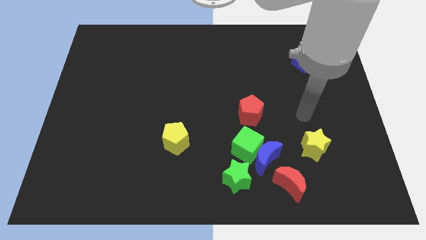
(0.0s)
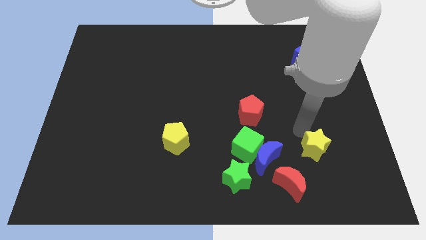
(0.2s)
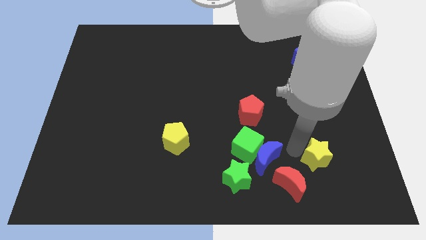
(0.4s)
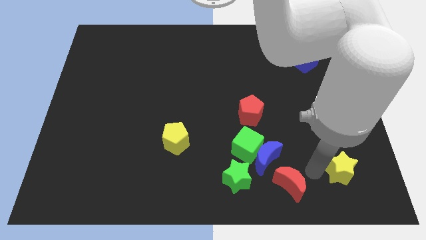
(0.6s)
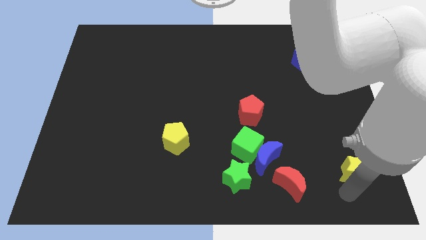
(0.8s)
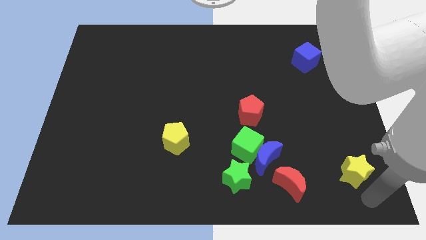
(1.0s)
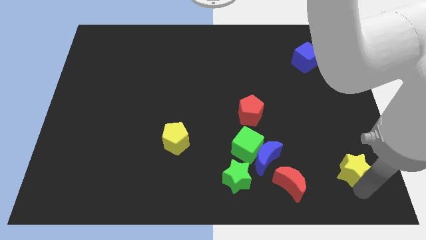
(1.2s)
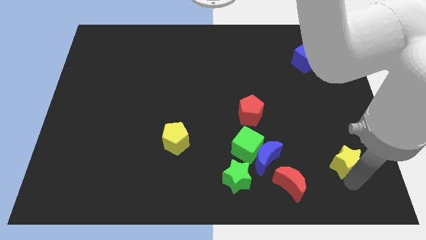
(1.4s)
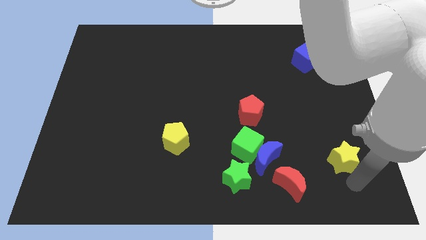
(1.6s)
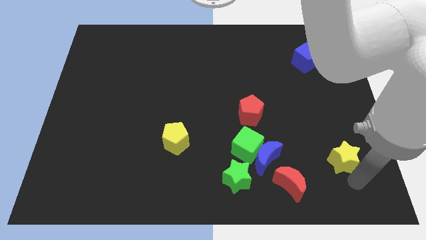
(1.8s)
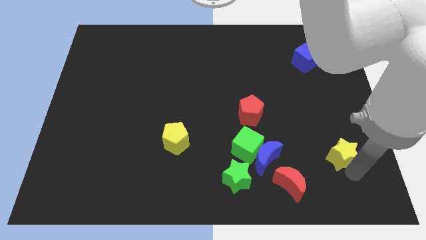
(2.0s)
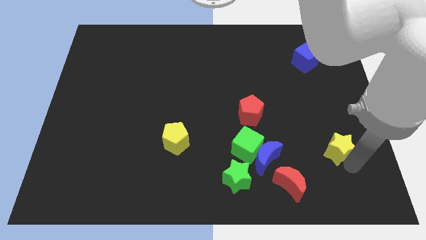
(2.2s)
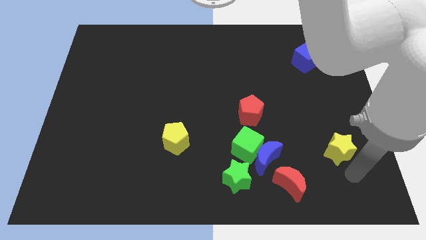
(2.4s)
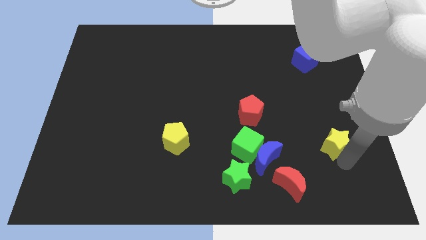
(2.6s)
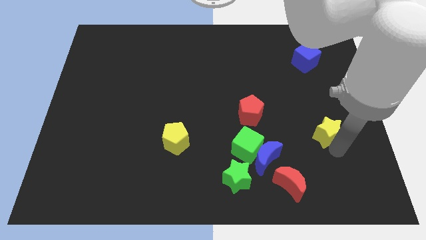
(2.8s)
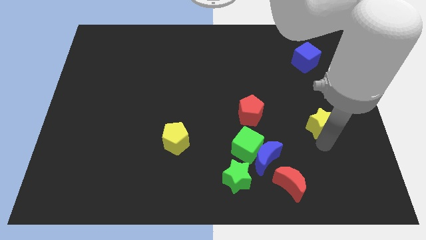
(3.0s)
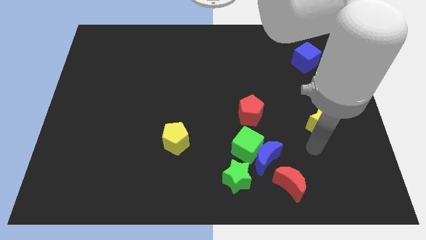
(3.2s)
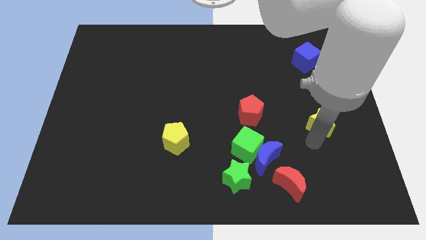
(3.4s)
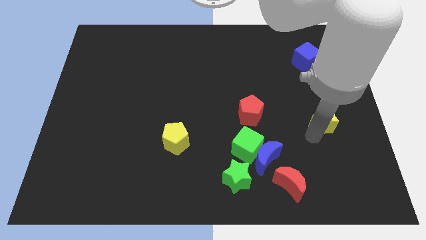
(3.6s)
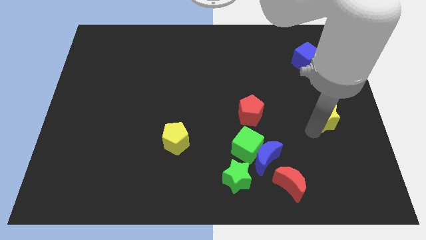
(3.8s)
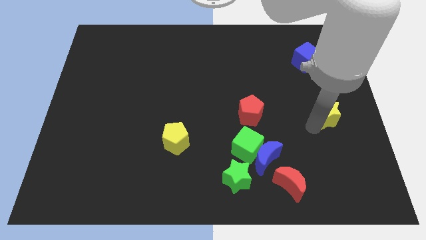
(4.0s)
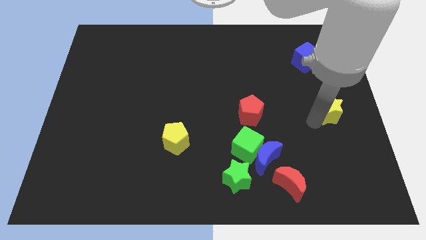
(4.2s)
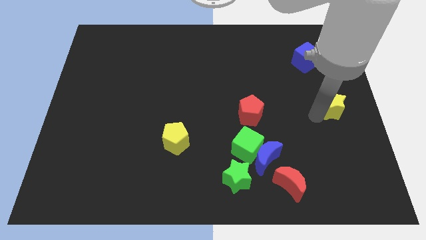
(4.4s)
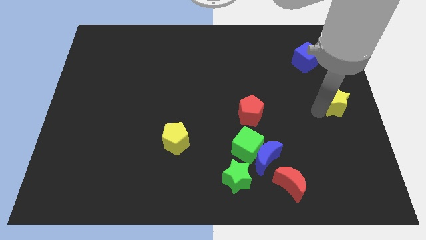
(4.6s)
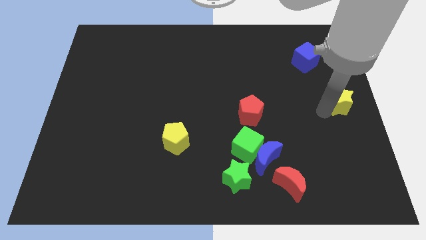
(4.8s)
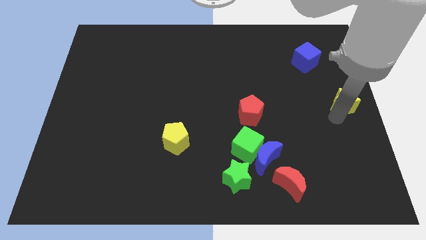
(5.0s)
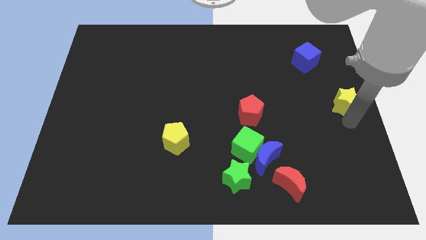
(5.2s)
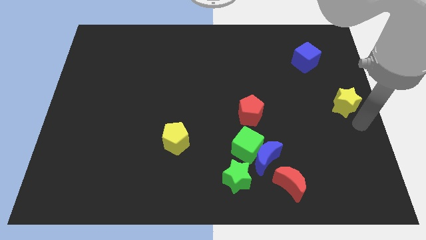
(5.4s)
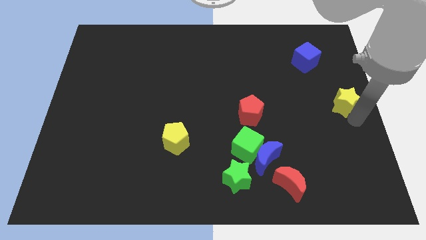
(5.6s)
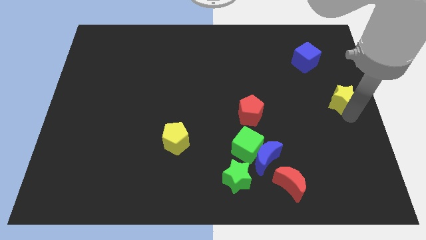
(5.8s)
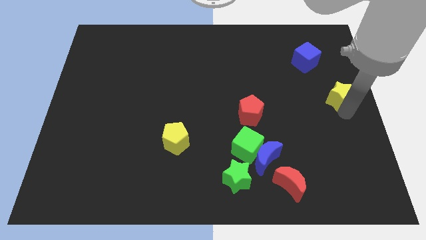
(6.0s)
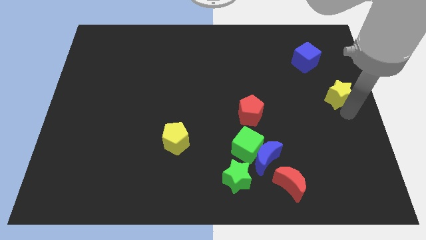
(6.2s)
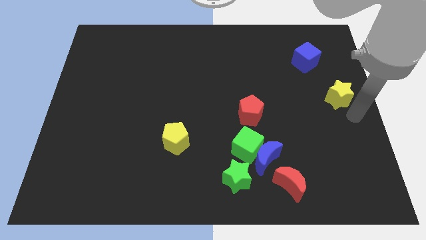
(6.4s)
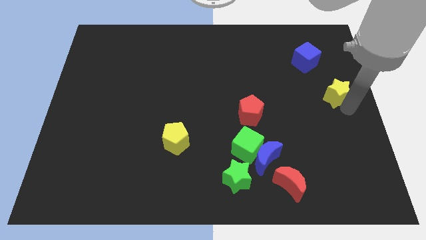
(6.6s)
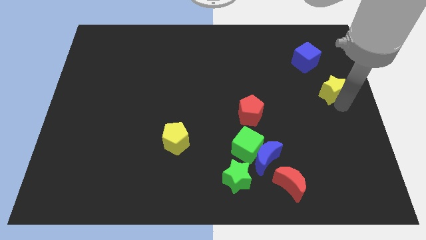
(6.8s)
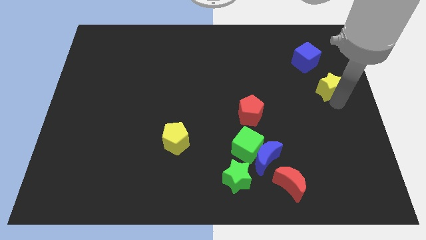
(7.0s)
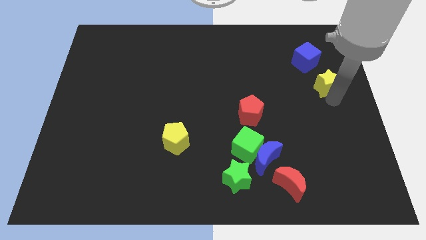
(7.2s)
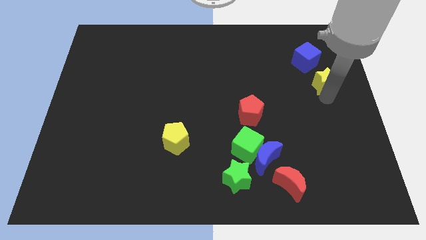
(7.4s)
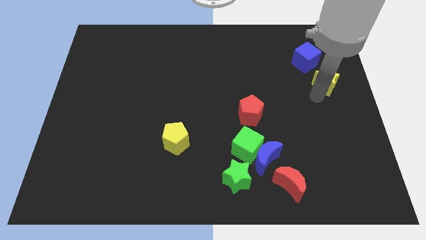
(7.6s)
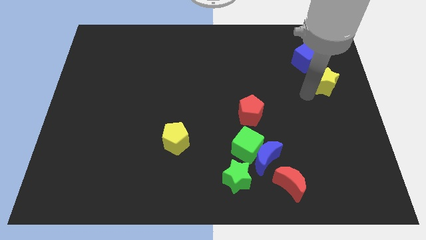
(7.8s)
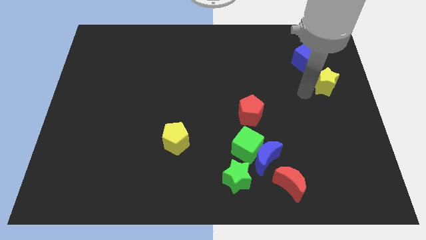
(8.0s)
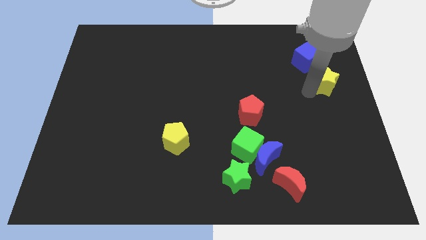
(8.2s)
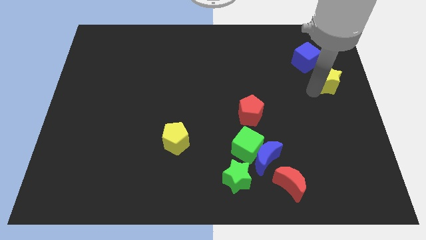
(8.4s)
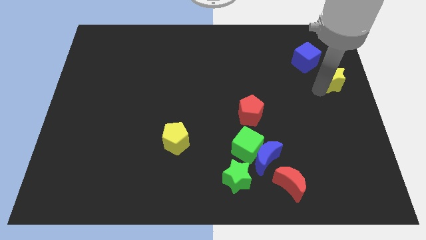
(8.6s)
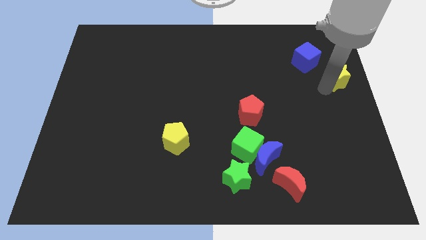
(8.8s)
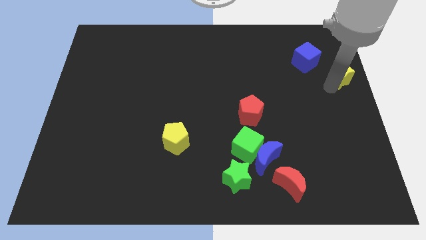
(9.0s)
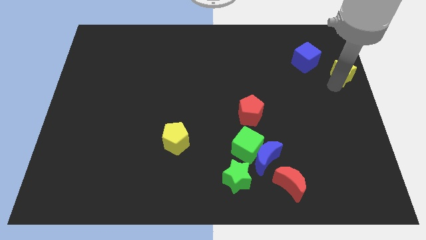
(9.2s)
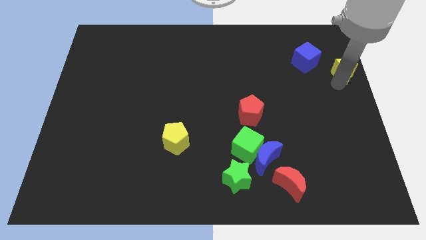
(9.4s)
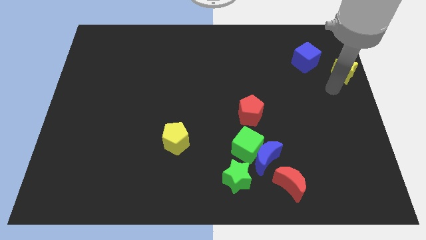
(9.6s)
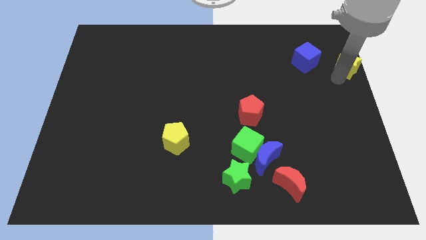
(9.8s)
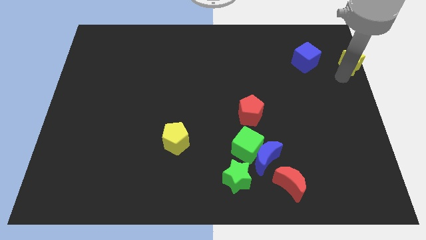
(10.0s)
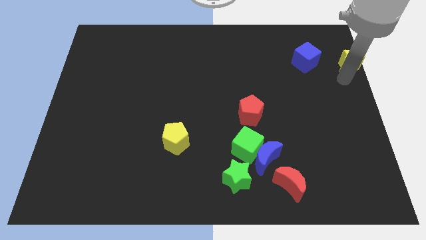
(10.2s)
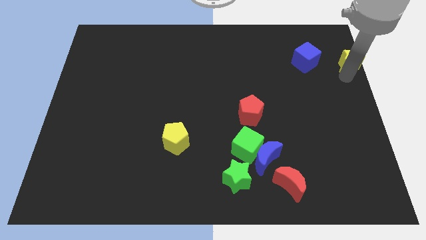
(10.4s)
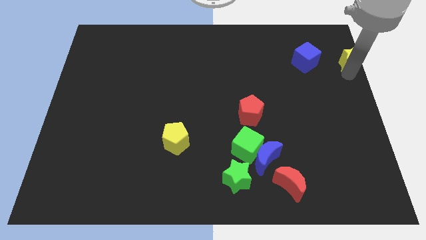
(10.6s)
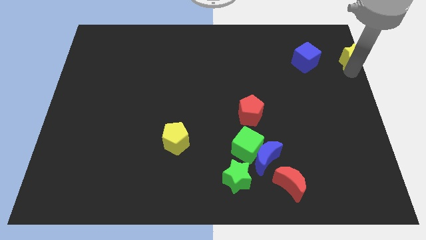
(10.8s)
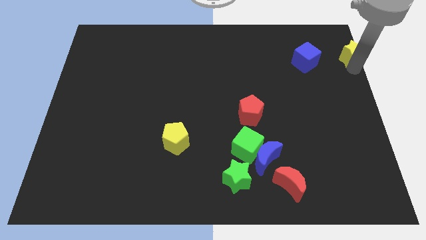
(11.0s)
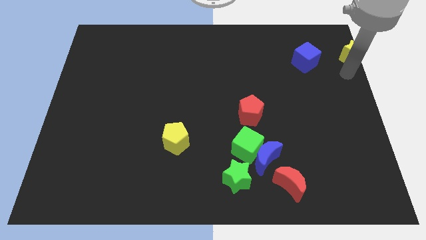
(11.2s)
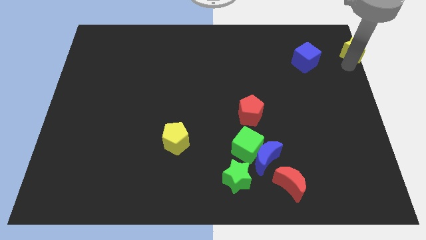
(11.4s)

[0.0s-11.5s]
put the yellow star to the upper right corner
